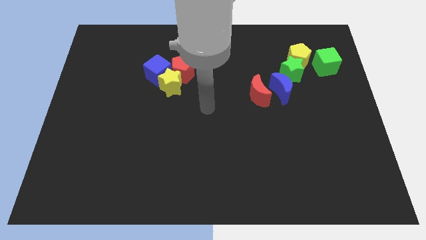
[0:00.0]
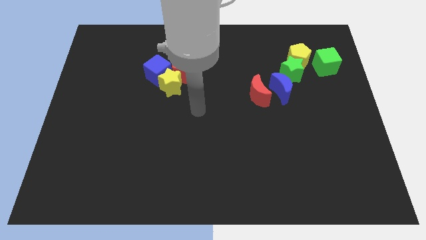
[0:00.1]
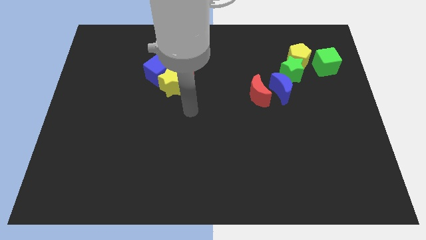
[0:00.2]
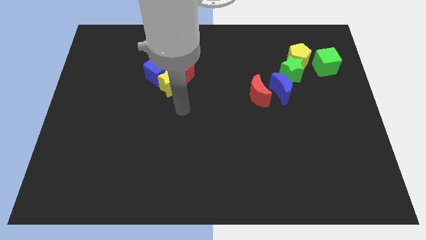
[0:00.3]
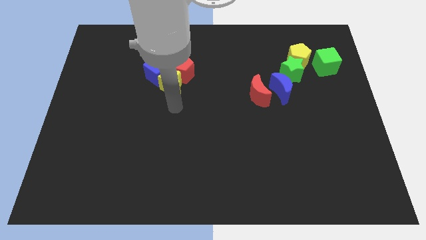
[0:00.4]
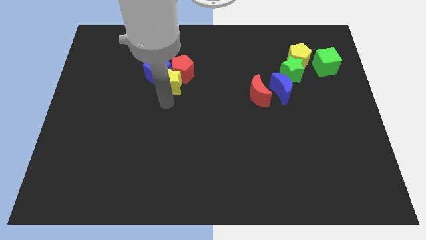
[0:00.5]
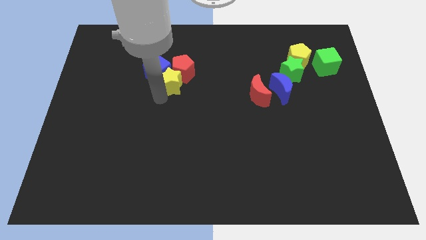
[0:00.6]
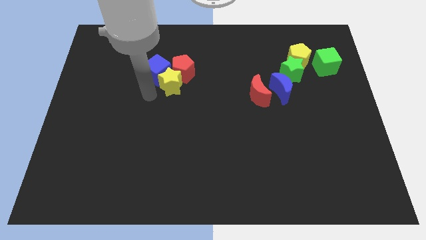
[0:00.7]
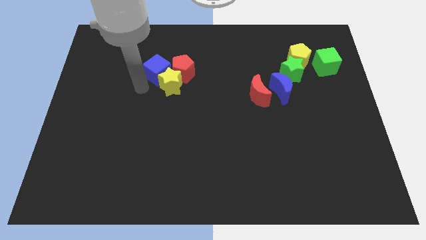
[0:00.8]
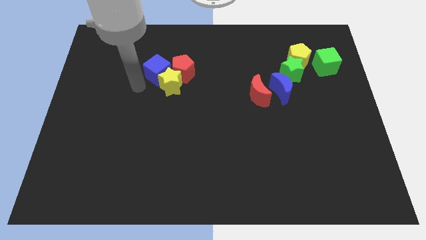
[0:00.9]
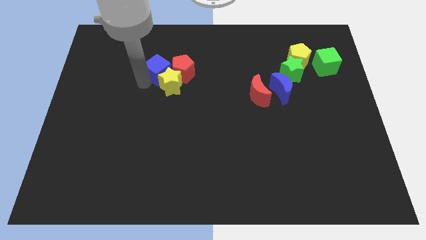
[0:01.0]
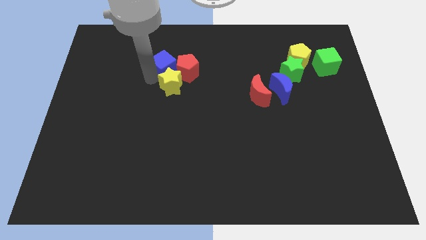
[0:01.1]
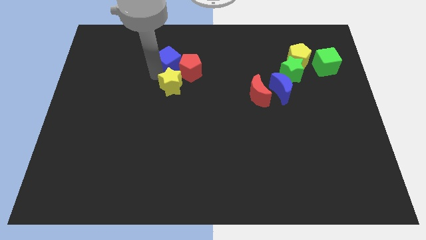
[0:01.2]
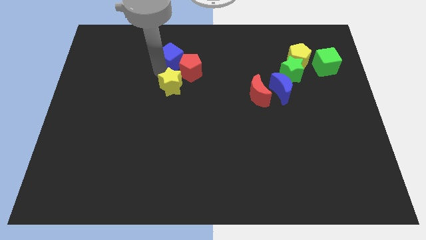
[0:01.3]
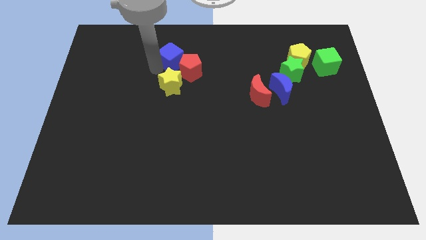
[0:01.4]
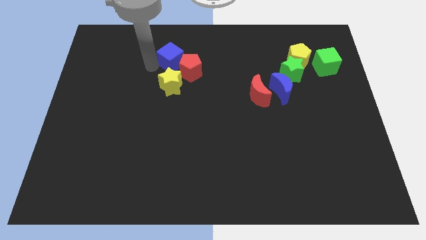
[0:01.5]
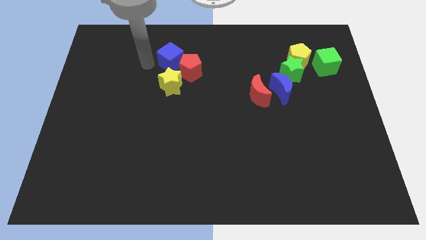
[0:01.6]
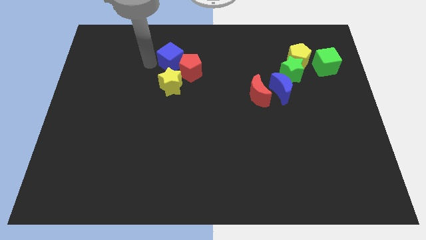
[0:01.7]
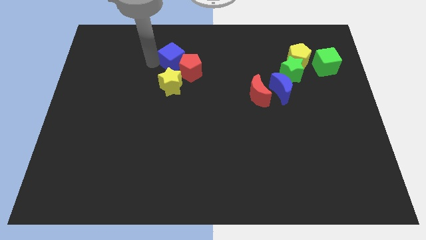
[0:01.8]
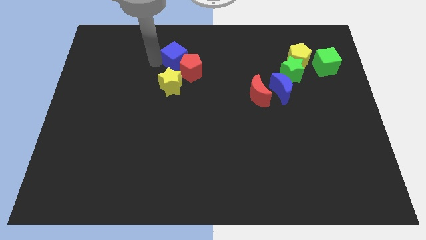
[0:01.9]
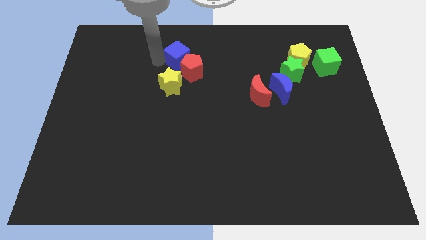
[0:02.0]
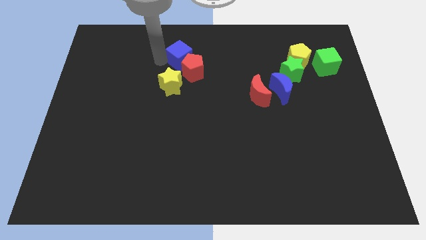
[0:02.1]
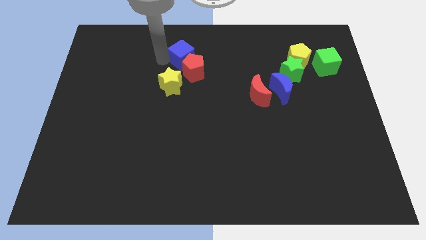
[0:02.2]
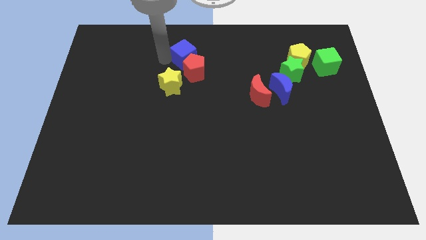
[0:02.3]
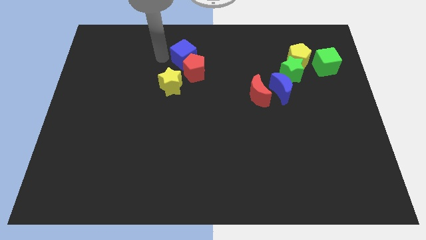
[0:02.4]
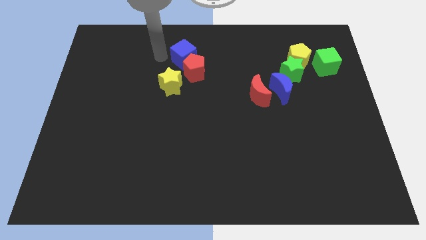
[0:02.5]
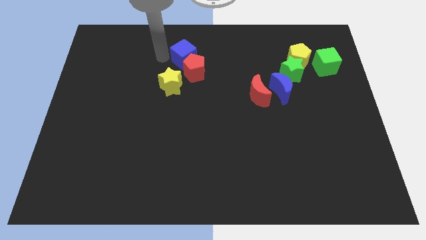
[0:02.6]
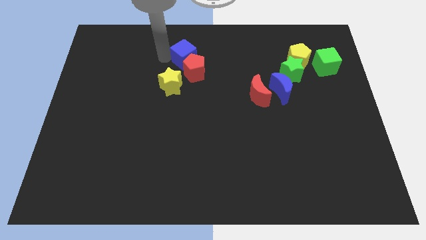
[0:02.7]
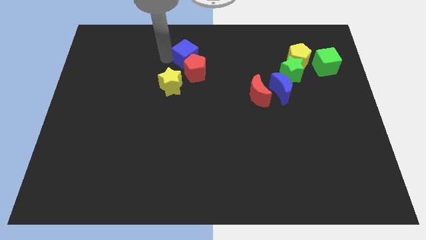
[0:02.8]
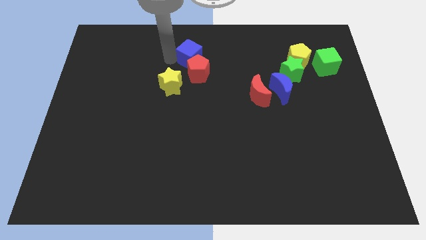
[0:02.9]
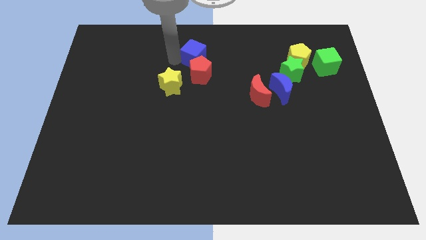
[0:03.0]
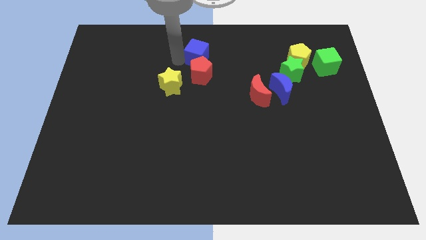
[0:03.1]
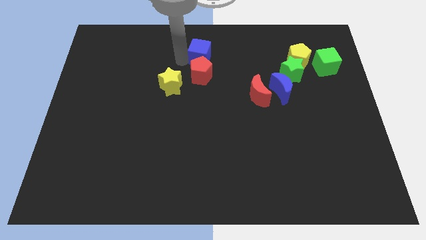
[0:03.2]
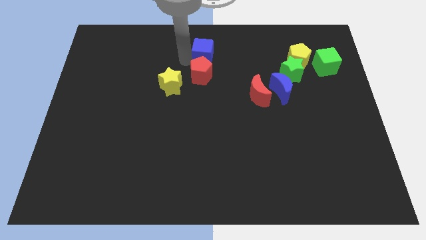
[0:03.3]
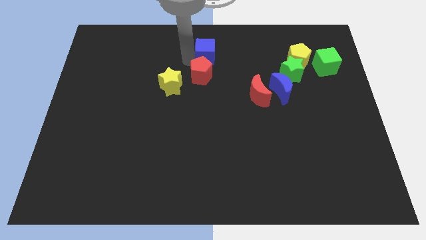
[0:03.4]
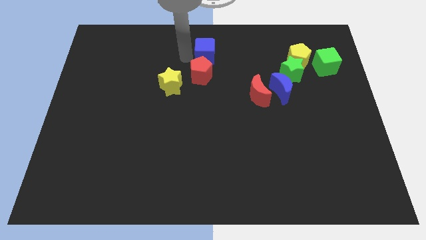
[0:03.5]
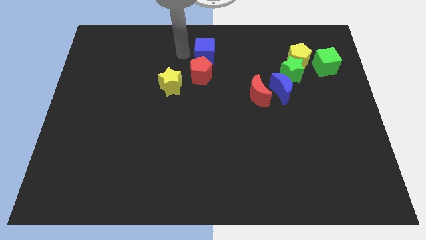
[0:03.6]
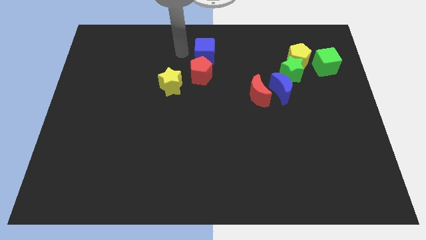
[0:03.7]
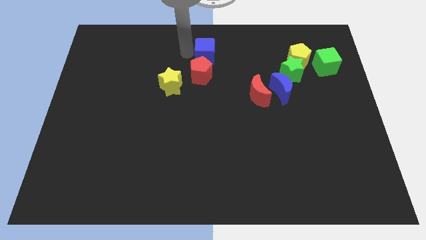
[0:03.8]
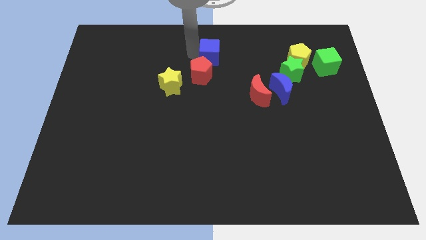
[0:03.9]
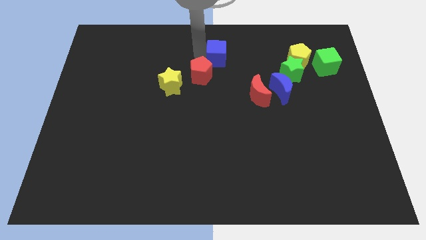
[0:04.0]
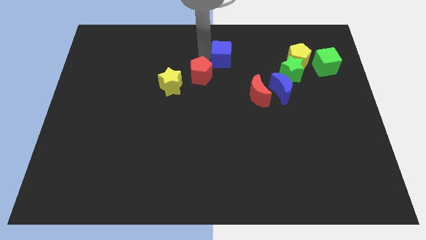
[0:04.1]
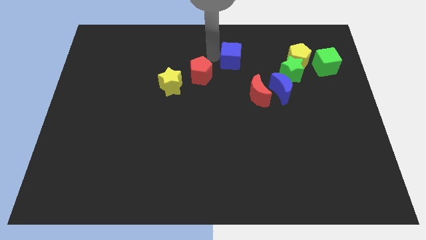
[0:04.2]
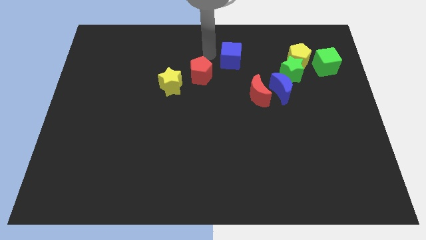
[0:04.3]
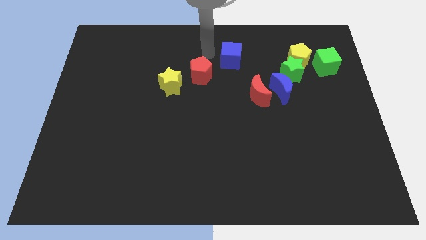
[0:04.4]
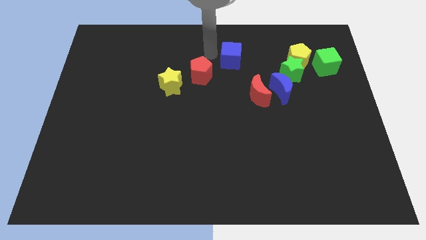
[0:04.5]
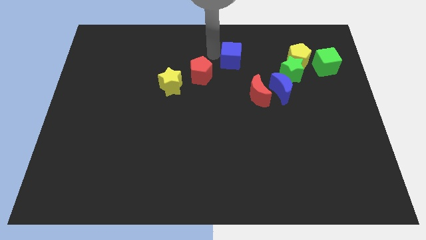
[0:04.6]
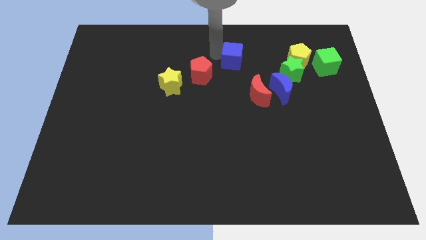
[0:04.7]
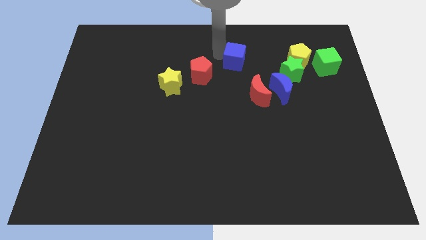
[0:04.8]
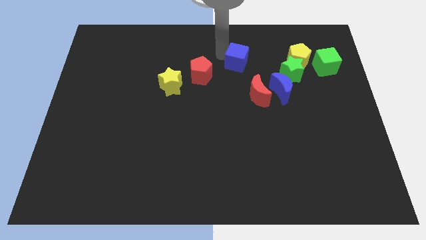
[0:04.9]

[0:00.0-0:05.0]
push the blue cube above the red moon

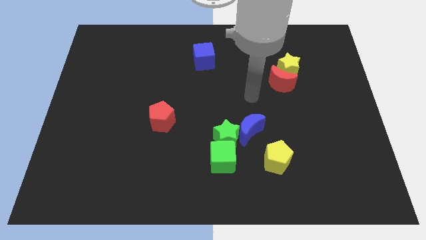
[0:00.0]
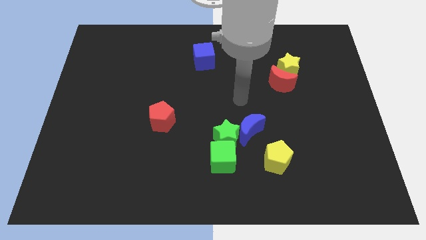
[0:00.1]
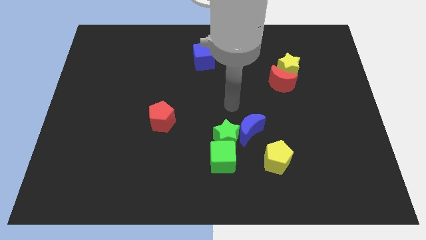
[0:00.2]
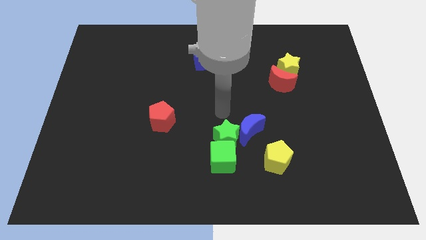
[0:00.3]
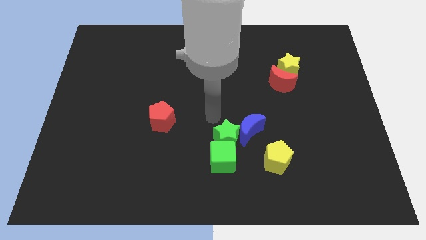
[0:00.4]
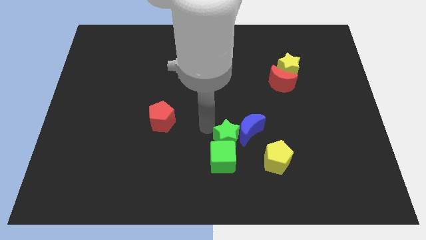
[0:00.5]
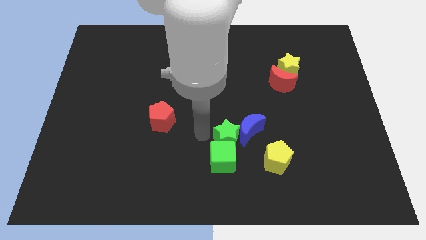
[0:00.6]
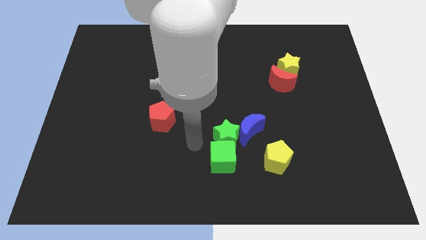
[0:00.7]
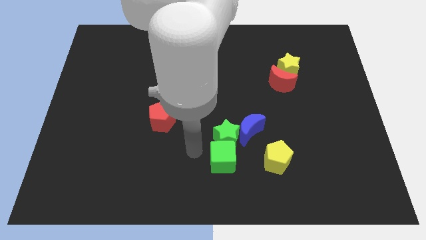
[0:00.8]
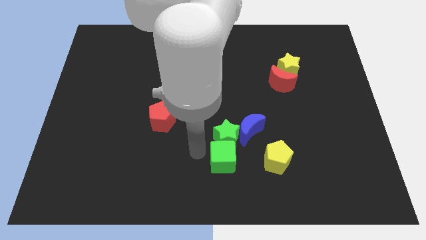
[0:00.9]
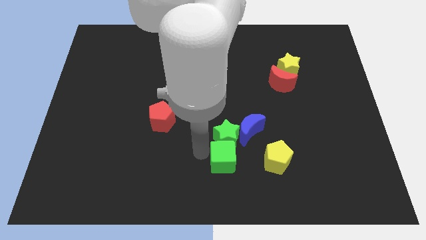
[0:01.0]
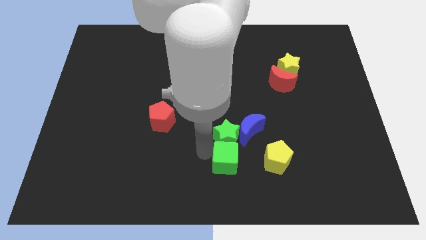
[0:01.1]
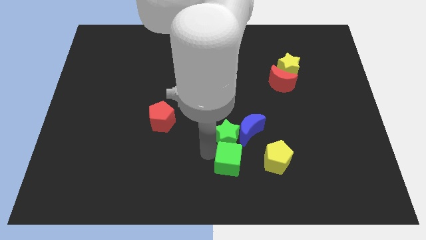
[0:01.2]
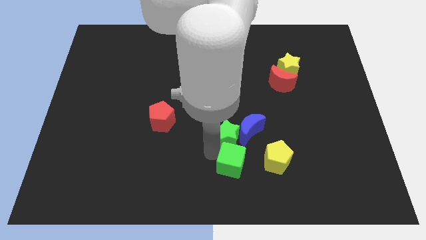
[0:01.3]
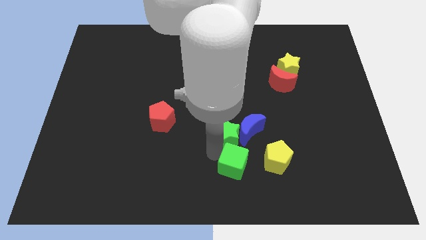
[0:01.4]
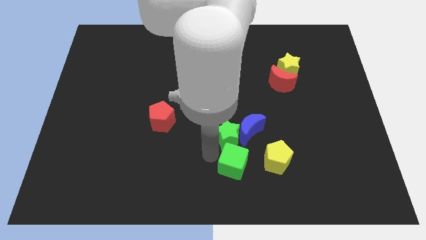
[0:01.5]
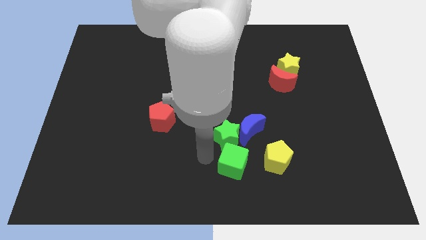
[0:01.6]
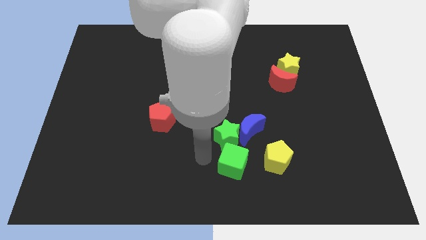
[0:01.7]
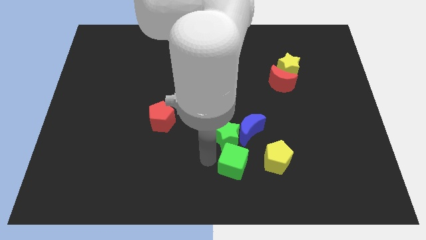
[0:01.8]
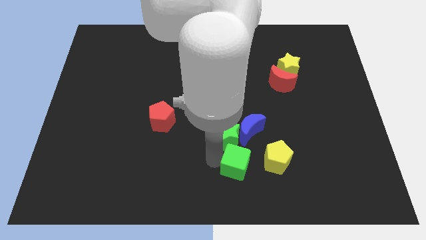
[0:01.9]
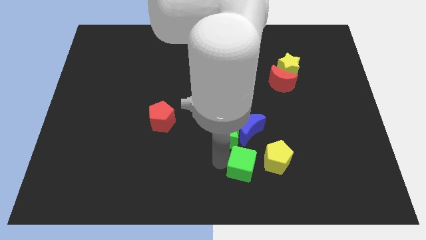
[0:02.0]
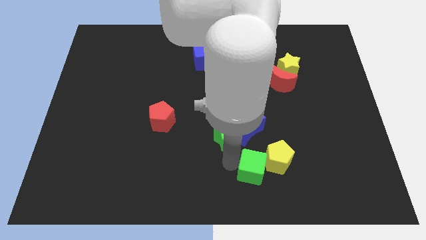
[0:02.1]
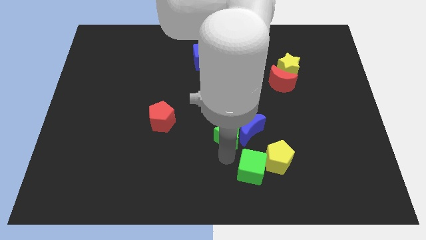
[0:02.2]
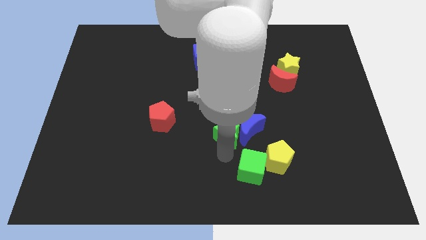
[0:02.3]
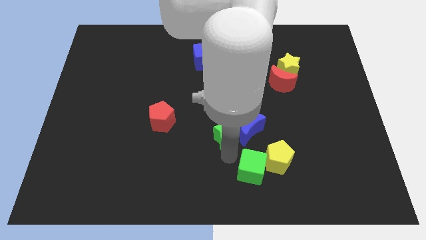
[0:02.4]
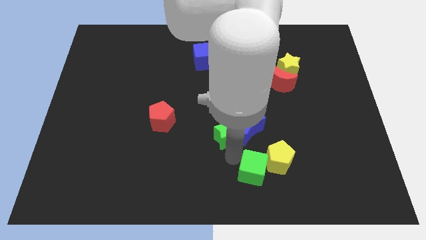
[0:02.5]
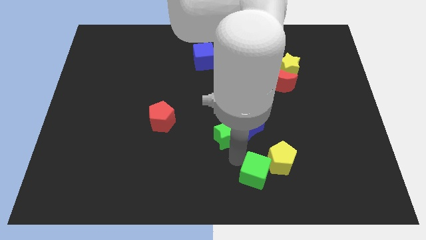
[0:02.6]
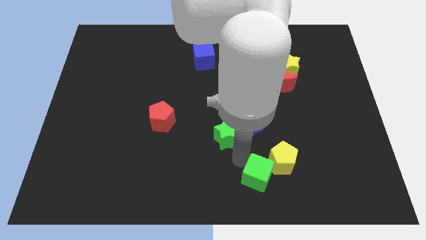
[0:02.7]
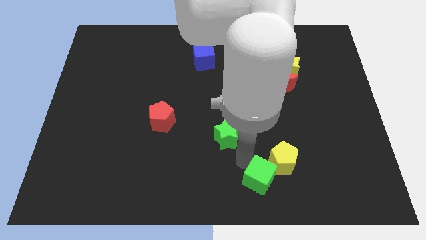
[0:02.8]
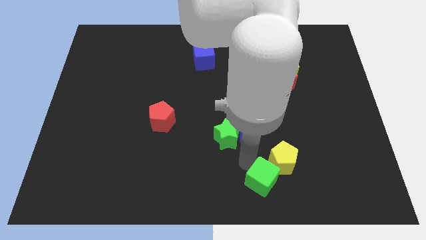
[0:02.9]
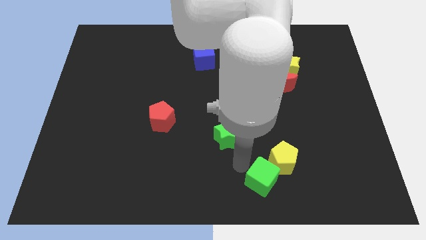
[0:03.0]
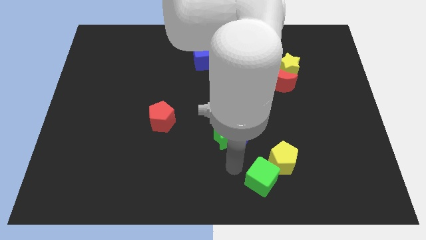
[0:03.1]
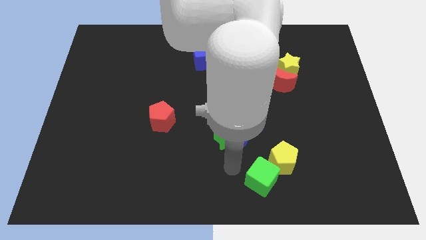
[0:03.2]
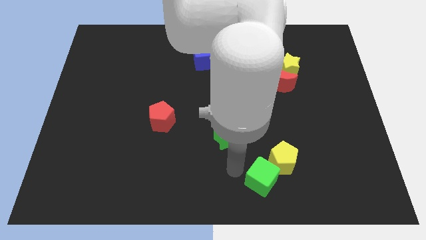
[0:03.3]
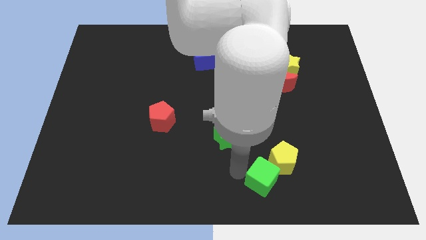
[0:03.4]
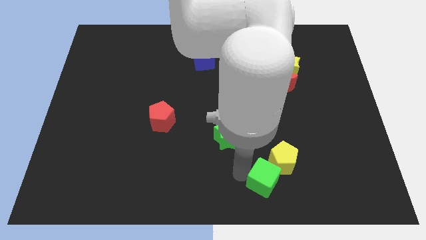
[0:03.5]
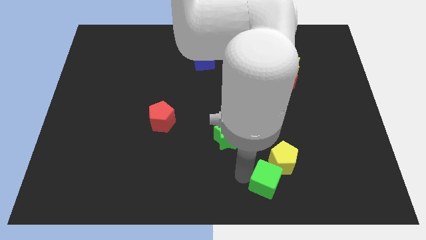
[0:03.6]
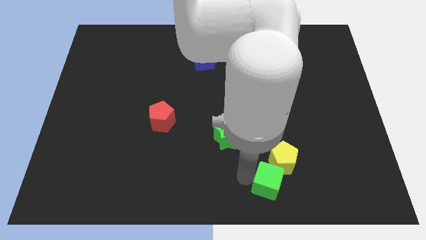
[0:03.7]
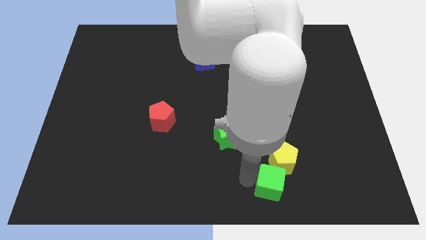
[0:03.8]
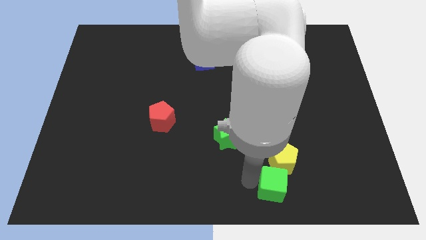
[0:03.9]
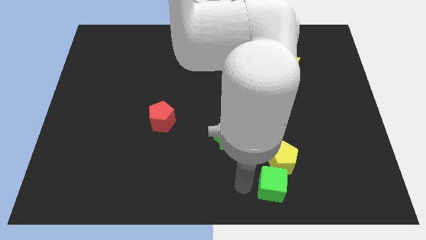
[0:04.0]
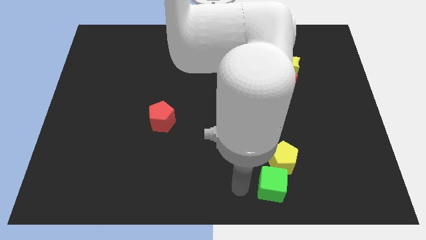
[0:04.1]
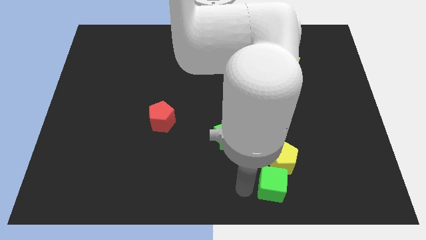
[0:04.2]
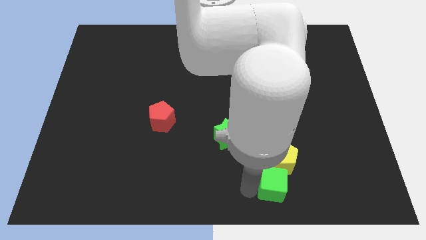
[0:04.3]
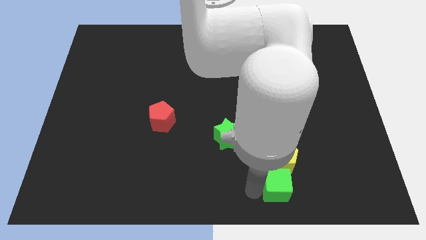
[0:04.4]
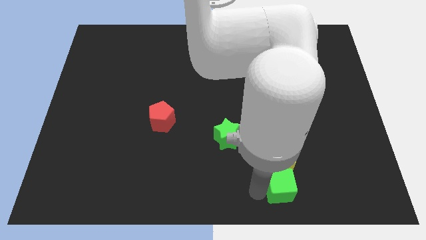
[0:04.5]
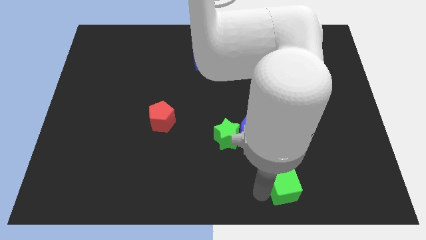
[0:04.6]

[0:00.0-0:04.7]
push the green cube to the bottom right side of the yellow pentagon
